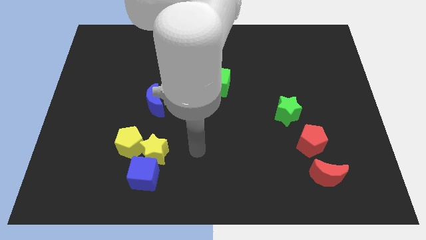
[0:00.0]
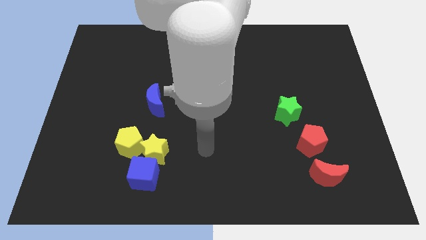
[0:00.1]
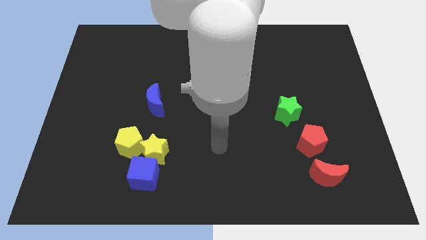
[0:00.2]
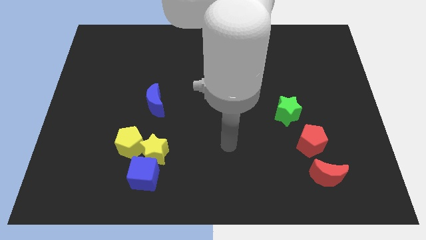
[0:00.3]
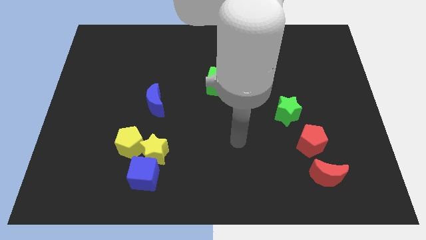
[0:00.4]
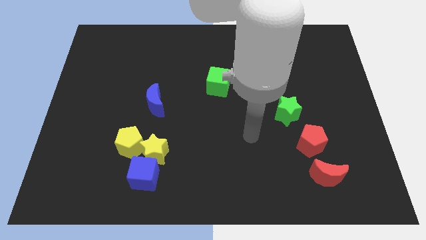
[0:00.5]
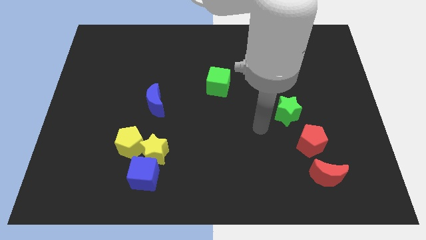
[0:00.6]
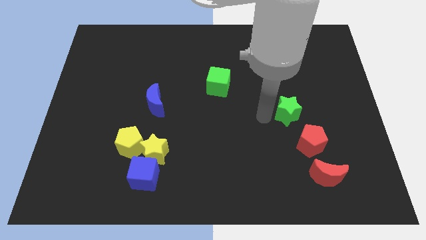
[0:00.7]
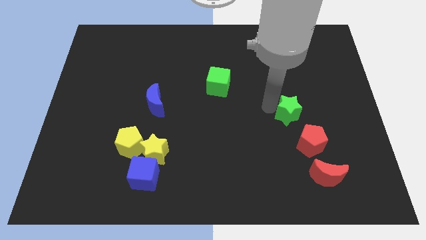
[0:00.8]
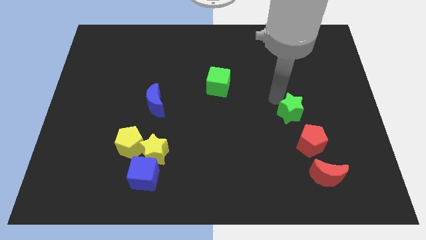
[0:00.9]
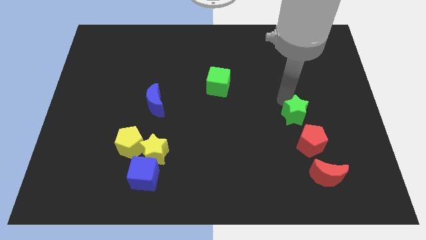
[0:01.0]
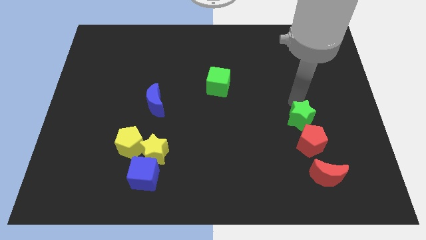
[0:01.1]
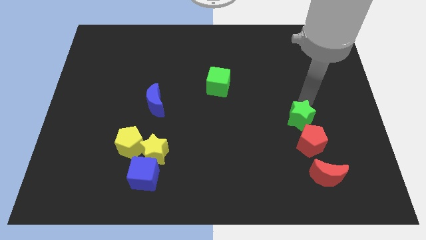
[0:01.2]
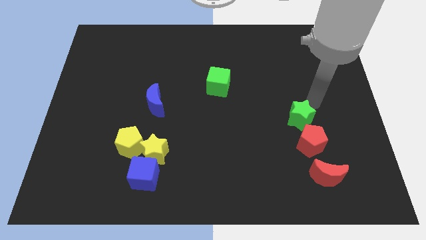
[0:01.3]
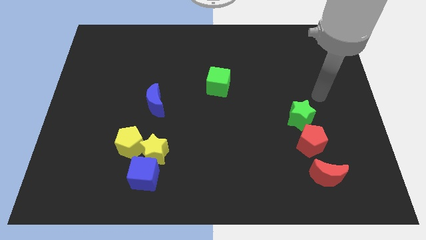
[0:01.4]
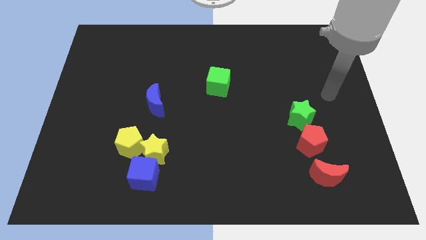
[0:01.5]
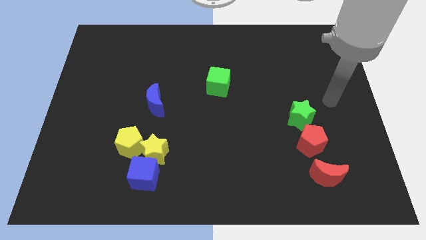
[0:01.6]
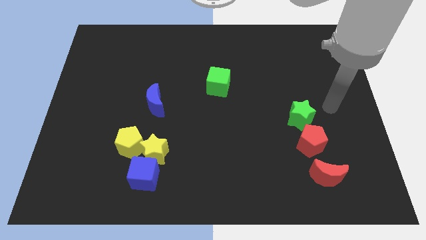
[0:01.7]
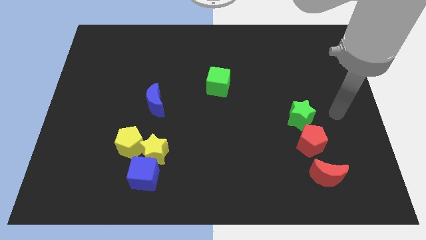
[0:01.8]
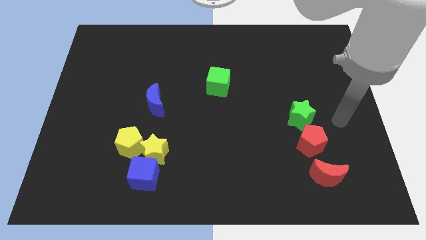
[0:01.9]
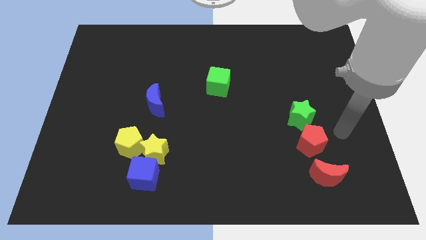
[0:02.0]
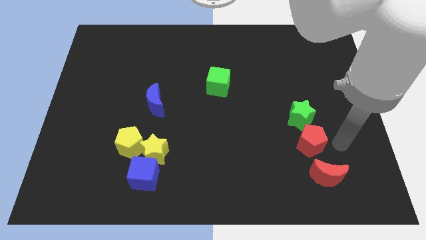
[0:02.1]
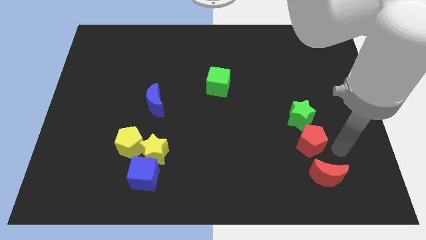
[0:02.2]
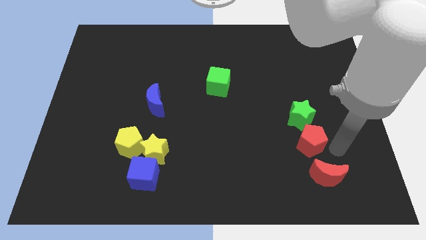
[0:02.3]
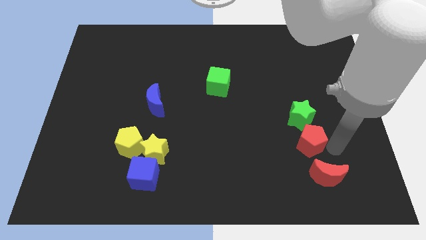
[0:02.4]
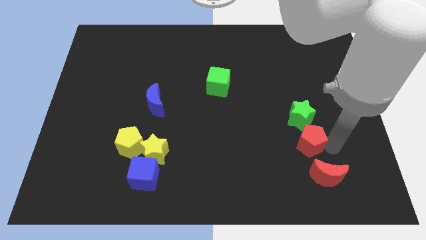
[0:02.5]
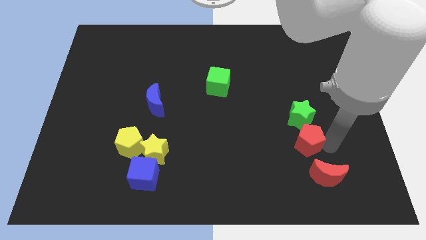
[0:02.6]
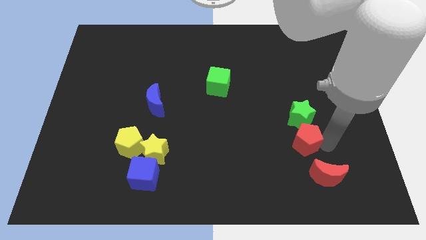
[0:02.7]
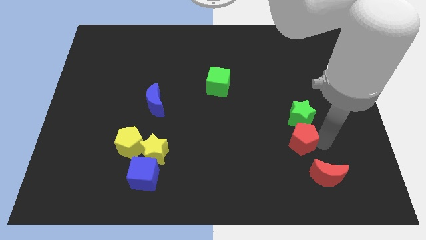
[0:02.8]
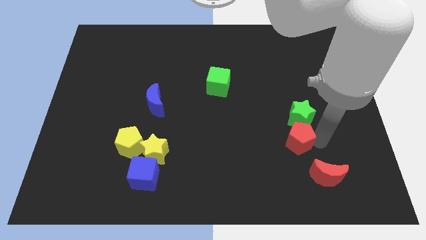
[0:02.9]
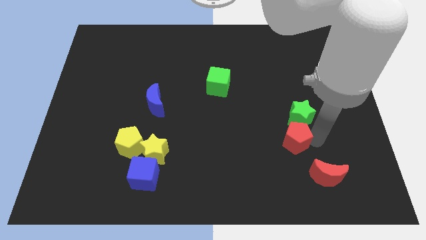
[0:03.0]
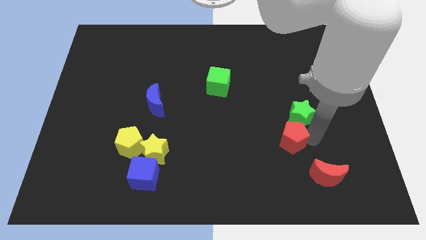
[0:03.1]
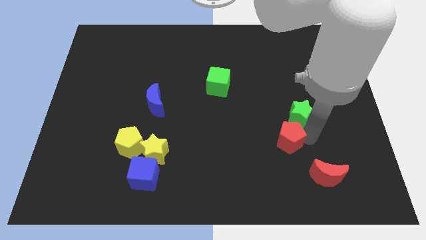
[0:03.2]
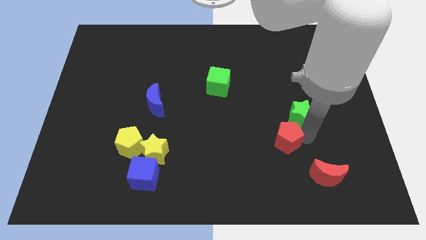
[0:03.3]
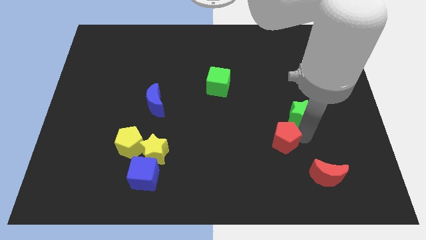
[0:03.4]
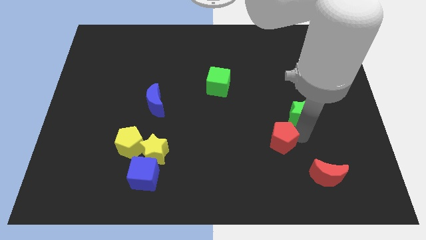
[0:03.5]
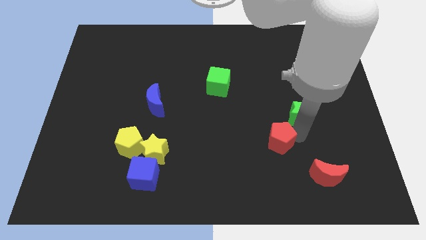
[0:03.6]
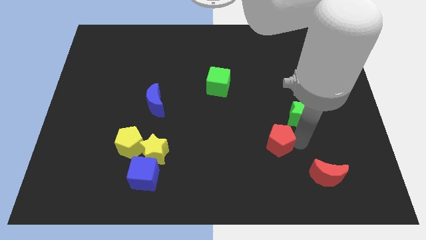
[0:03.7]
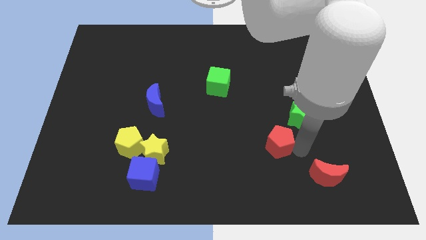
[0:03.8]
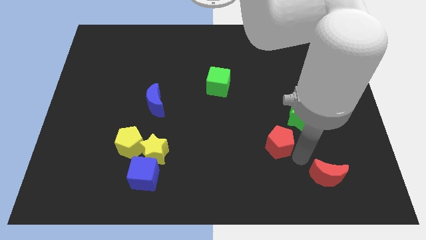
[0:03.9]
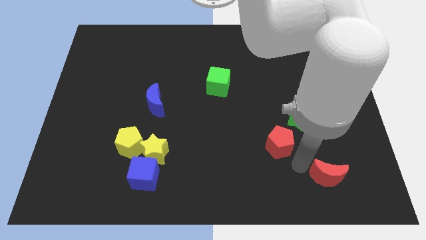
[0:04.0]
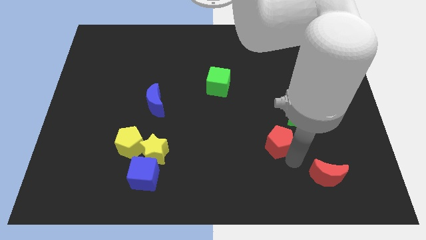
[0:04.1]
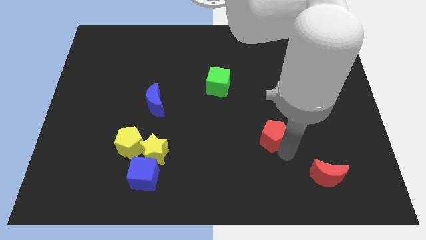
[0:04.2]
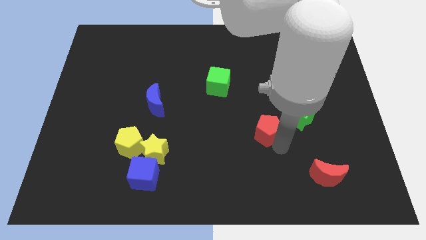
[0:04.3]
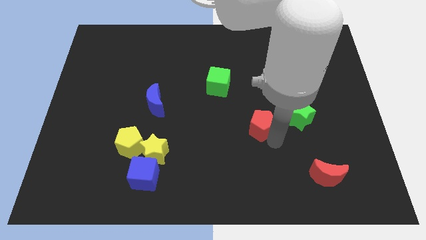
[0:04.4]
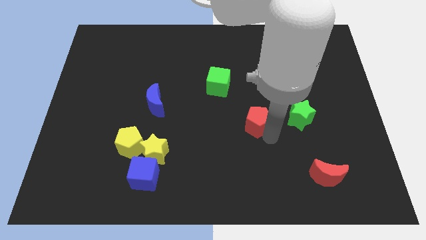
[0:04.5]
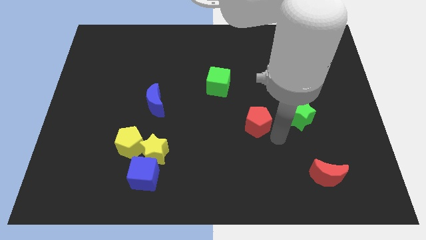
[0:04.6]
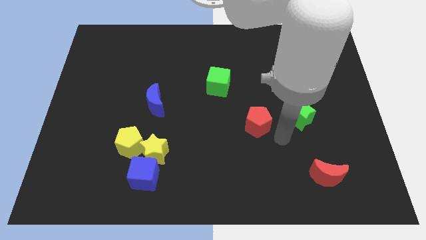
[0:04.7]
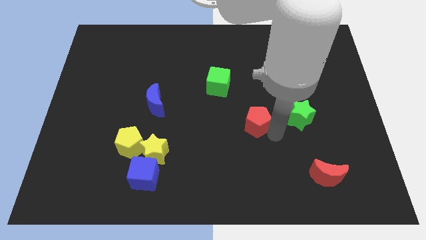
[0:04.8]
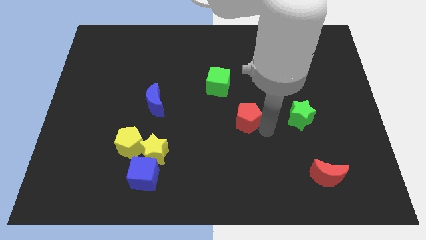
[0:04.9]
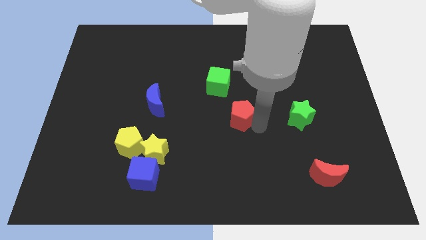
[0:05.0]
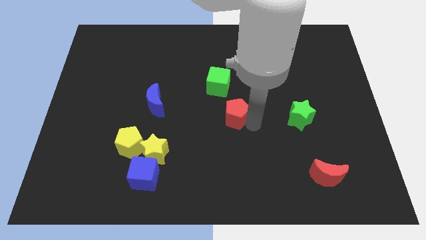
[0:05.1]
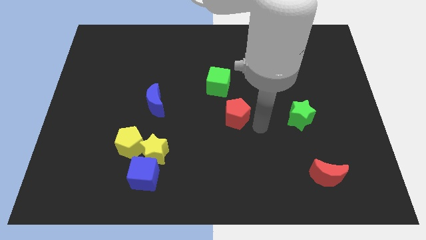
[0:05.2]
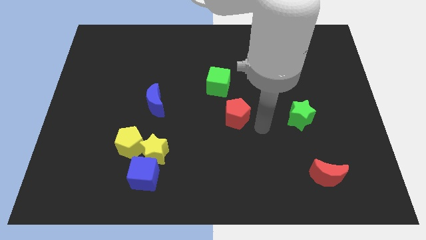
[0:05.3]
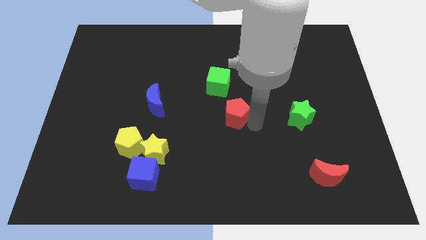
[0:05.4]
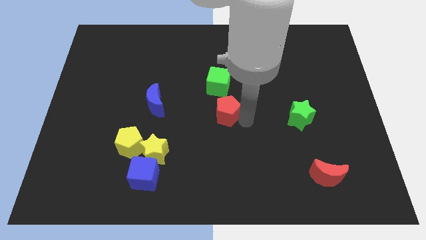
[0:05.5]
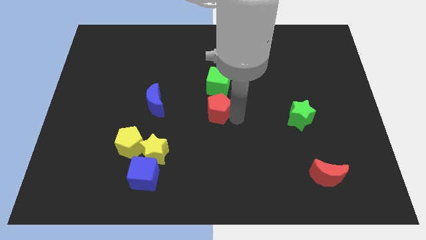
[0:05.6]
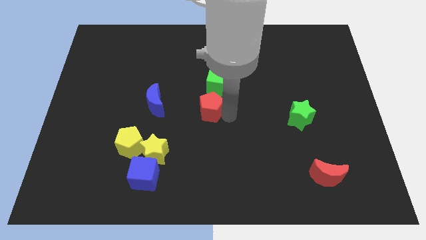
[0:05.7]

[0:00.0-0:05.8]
push the red pentagon diagonally down and to the left of the green cube

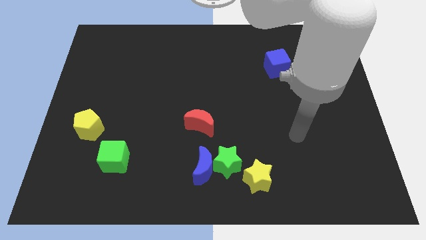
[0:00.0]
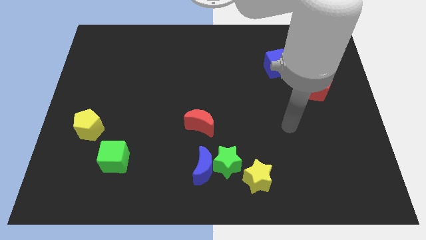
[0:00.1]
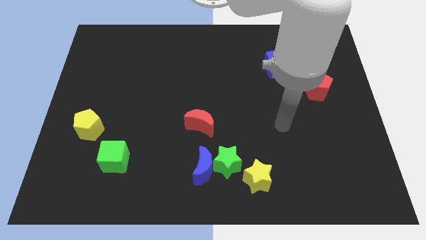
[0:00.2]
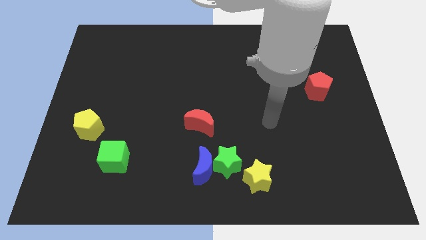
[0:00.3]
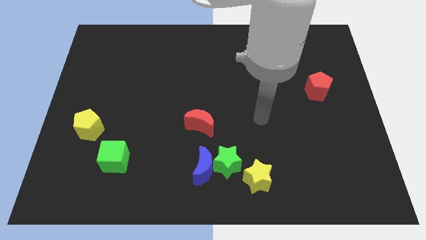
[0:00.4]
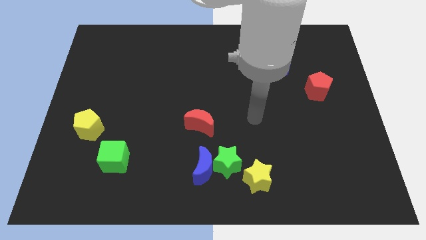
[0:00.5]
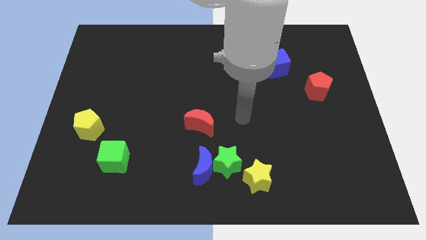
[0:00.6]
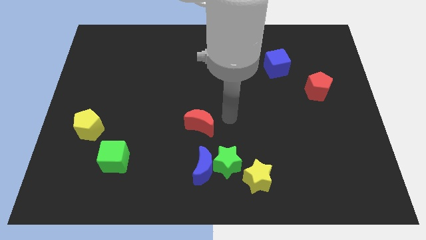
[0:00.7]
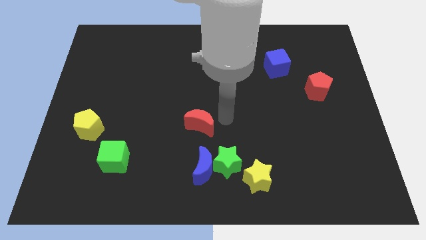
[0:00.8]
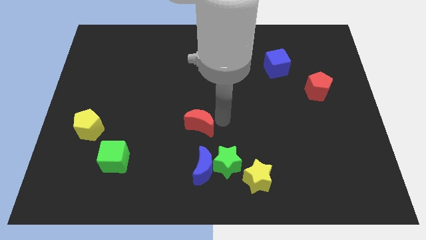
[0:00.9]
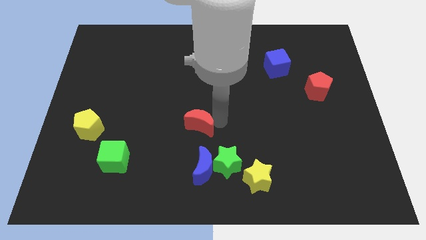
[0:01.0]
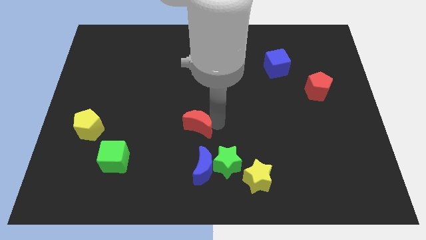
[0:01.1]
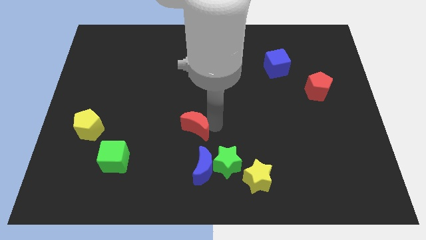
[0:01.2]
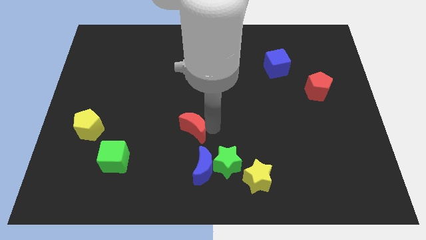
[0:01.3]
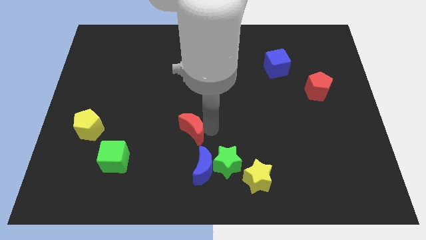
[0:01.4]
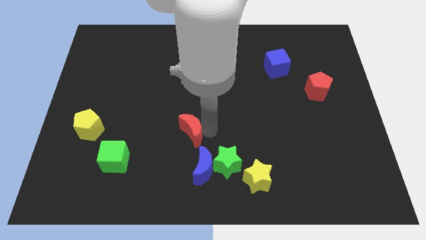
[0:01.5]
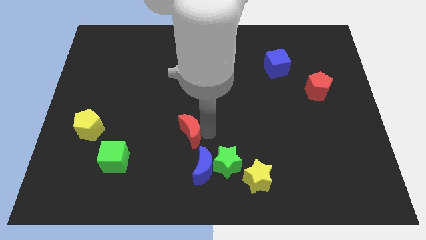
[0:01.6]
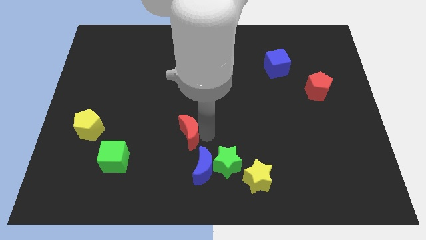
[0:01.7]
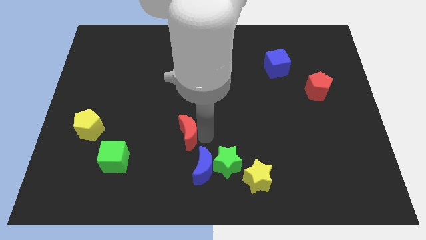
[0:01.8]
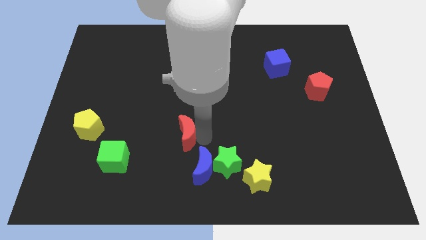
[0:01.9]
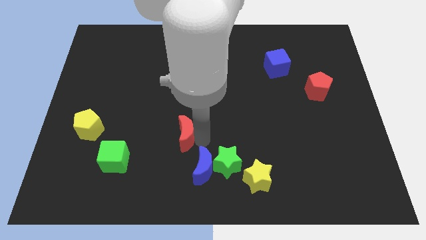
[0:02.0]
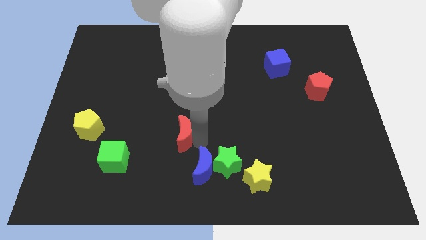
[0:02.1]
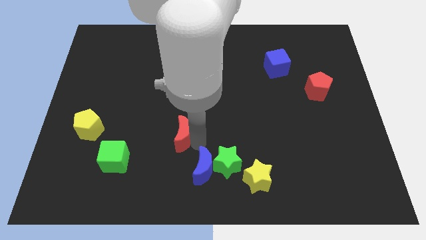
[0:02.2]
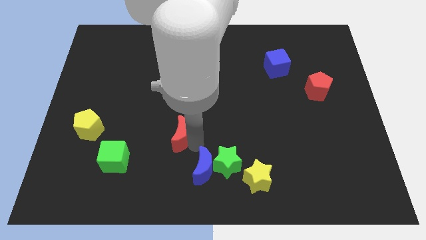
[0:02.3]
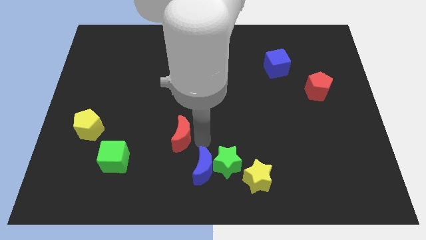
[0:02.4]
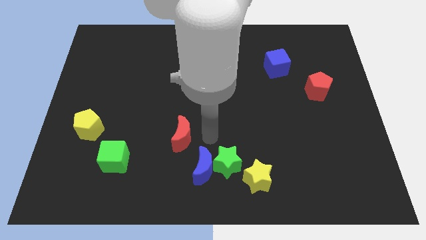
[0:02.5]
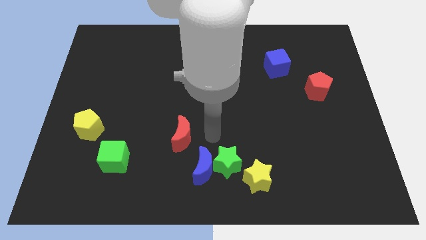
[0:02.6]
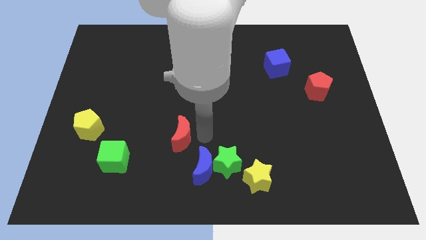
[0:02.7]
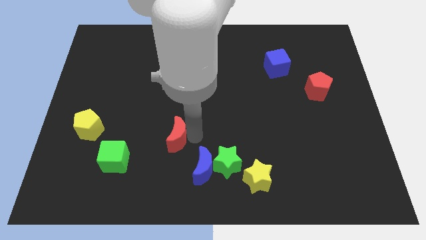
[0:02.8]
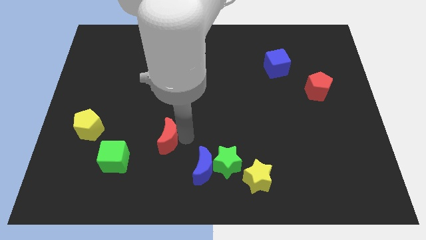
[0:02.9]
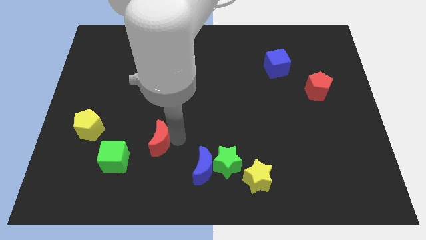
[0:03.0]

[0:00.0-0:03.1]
slide the red moon to the top right of the green cube
